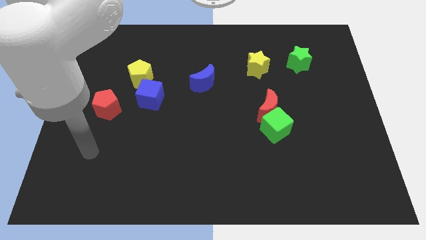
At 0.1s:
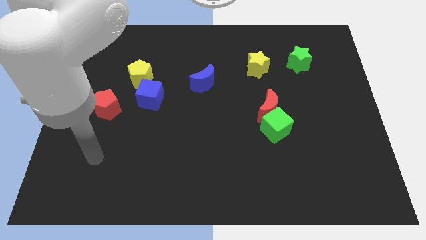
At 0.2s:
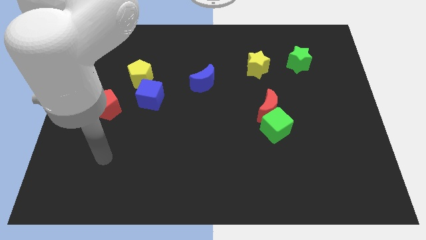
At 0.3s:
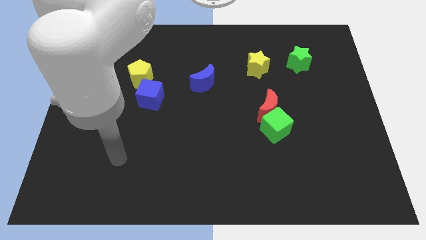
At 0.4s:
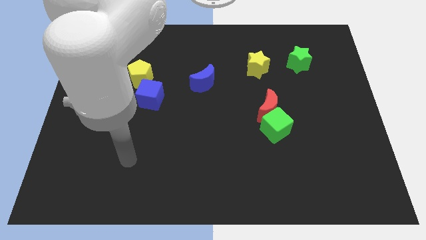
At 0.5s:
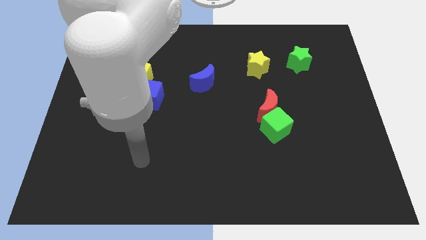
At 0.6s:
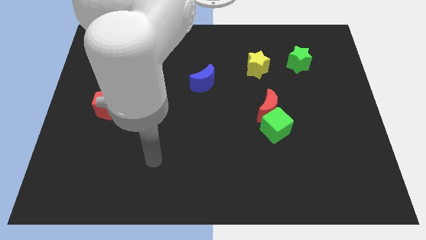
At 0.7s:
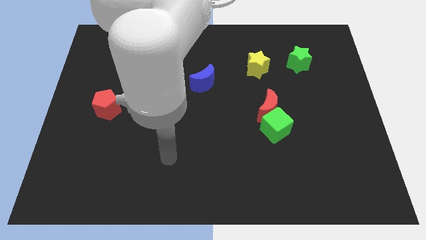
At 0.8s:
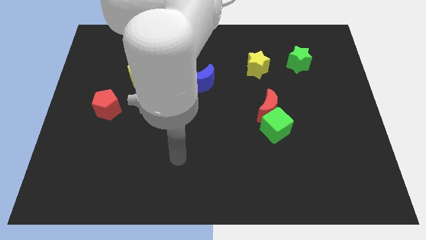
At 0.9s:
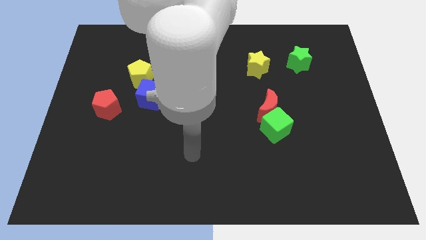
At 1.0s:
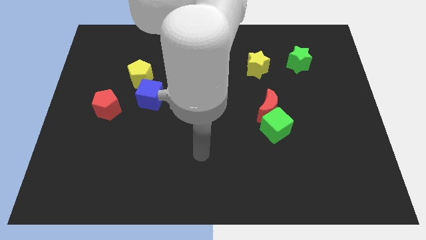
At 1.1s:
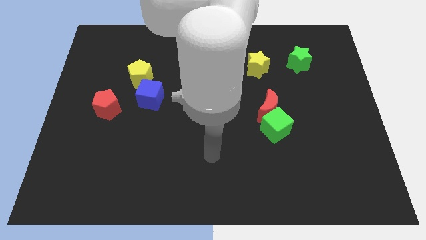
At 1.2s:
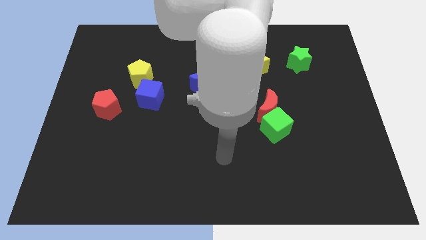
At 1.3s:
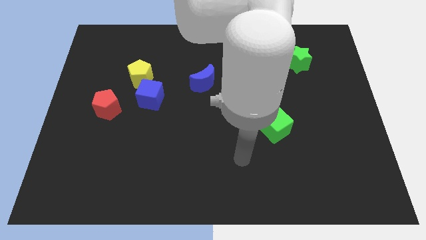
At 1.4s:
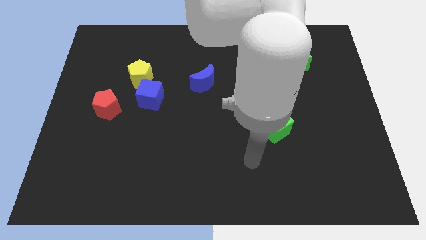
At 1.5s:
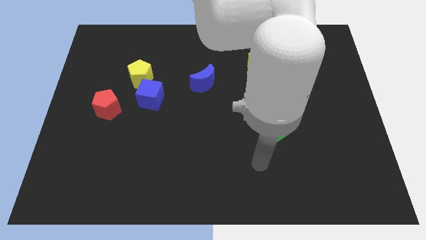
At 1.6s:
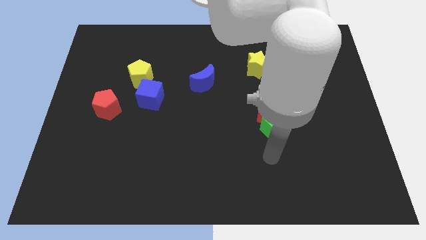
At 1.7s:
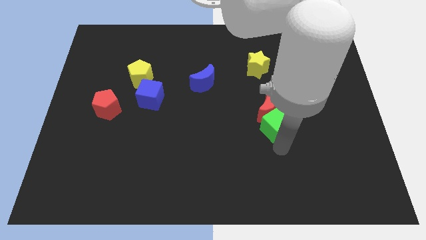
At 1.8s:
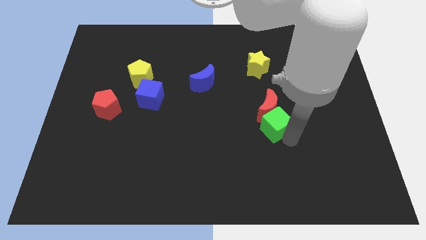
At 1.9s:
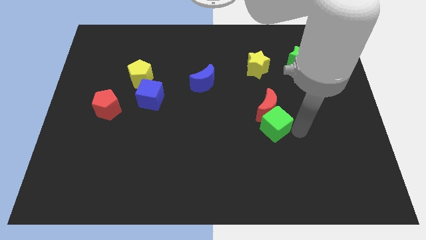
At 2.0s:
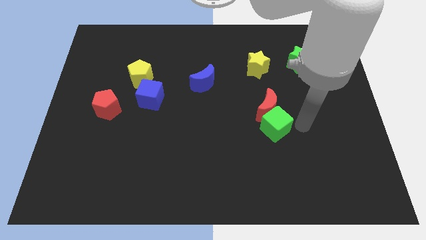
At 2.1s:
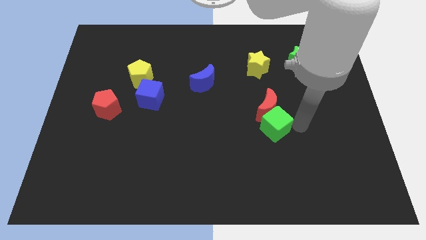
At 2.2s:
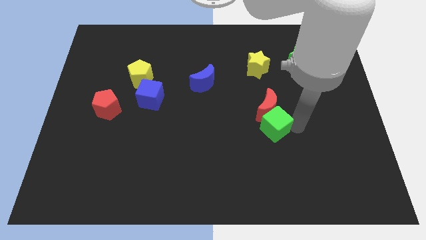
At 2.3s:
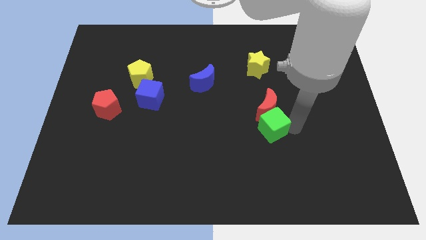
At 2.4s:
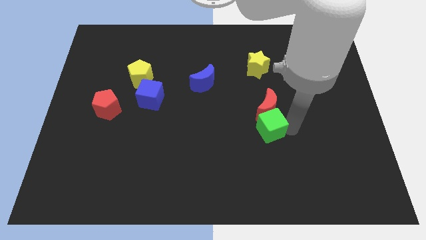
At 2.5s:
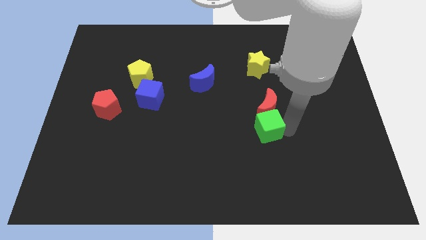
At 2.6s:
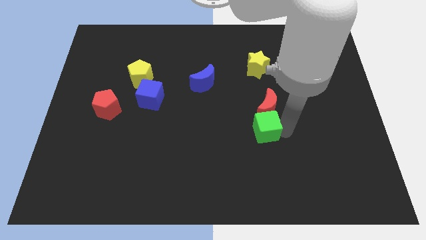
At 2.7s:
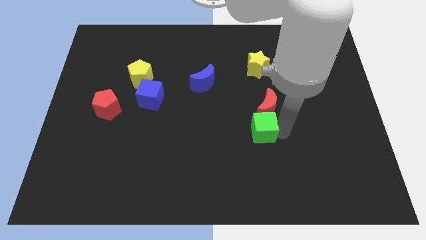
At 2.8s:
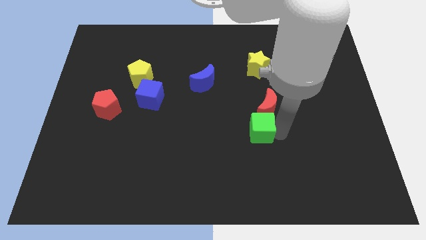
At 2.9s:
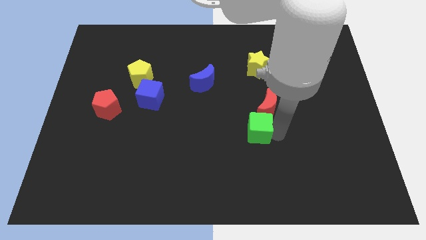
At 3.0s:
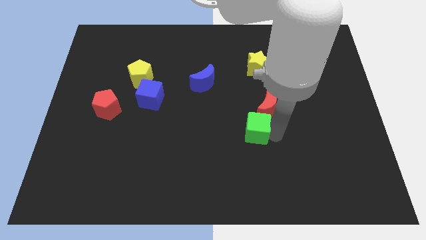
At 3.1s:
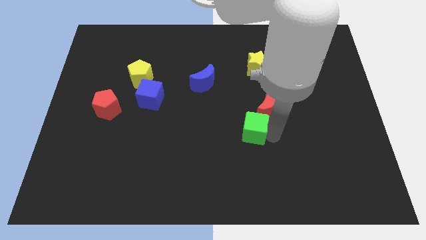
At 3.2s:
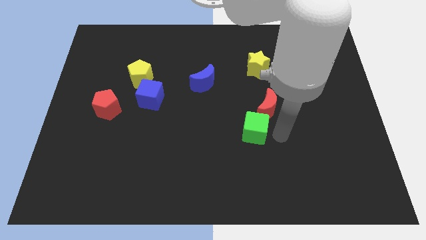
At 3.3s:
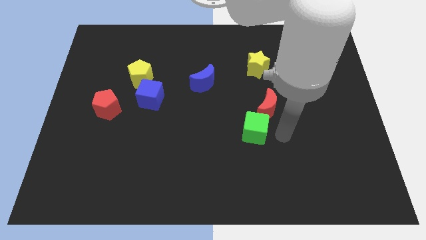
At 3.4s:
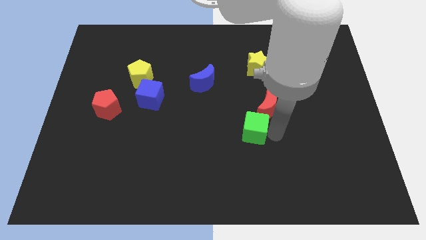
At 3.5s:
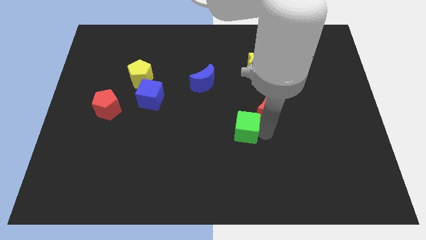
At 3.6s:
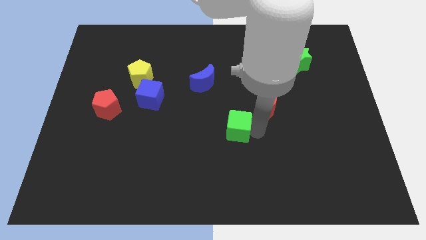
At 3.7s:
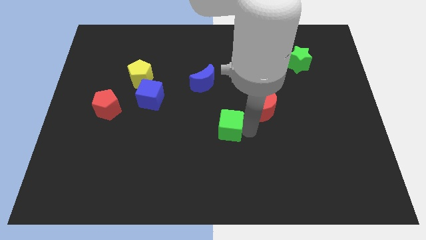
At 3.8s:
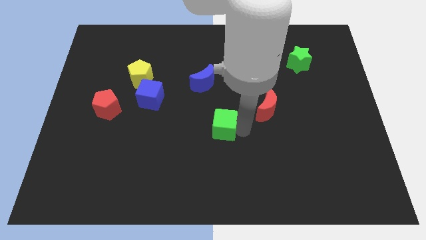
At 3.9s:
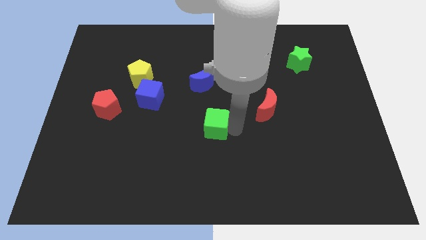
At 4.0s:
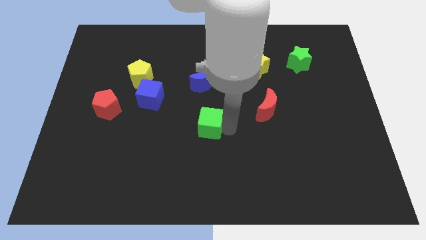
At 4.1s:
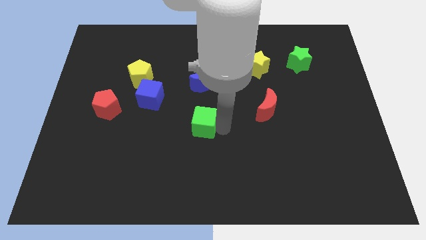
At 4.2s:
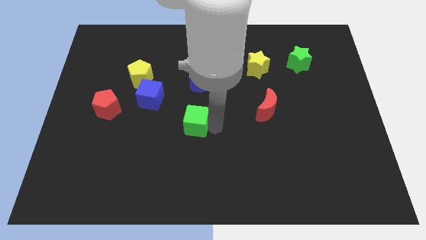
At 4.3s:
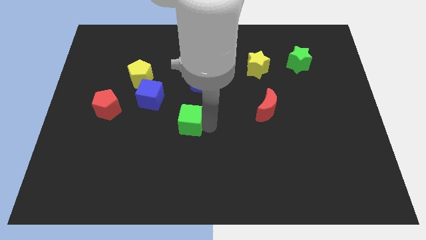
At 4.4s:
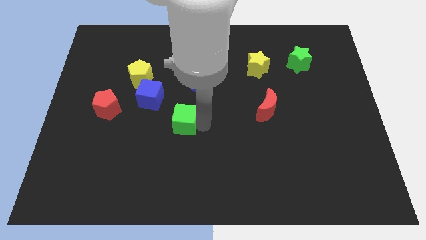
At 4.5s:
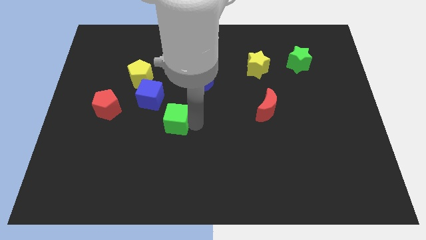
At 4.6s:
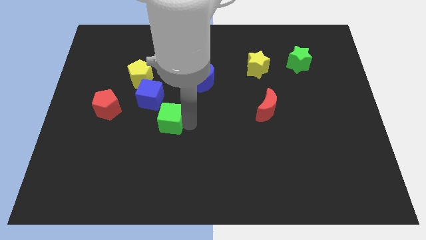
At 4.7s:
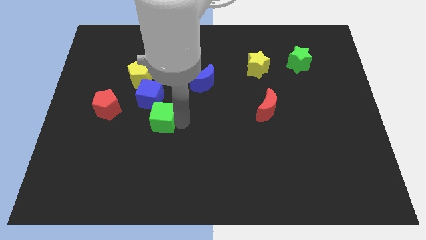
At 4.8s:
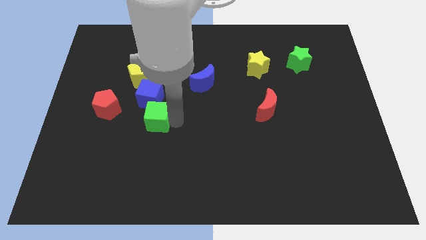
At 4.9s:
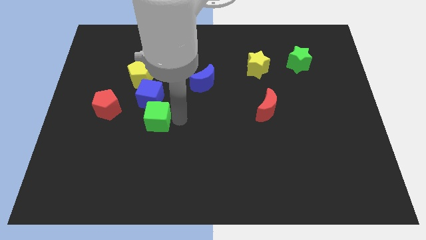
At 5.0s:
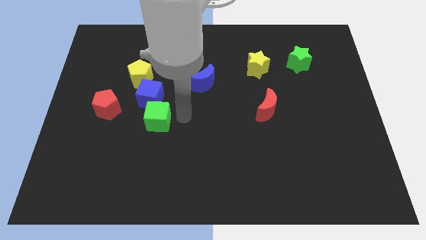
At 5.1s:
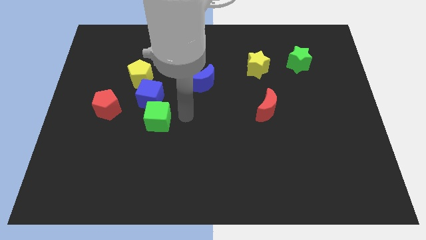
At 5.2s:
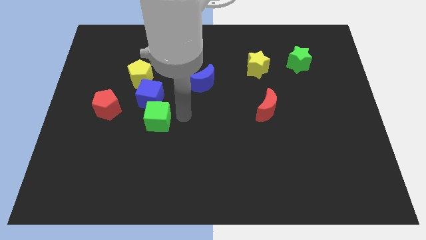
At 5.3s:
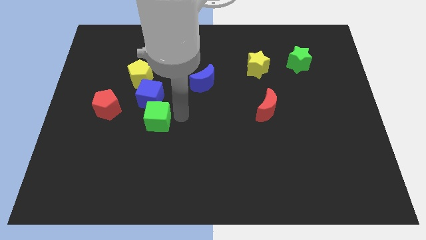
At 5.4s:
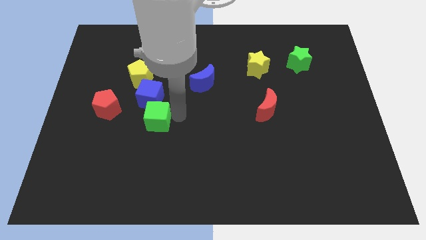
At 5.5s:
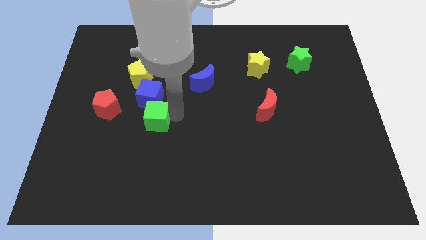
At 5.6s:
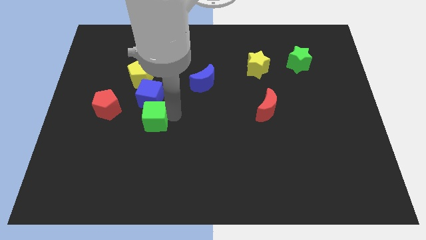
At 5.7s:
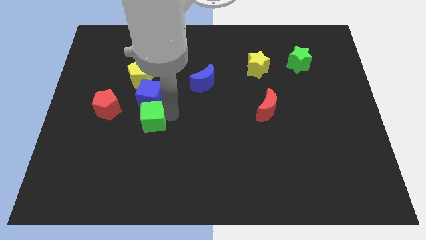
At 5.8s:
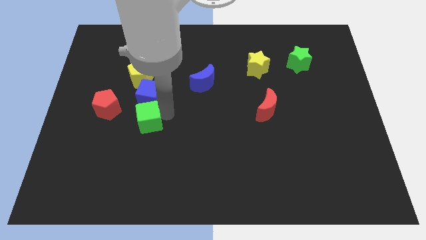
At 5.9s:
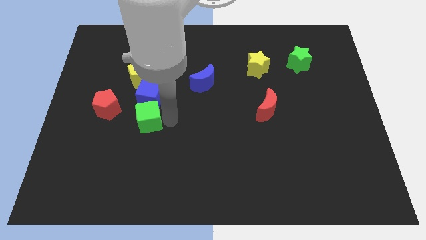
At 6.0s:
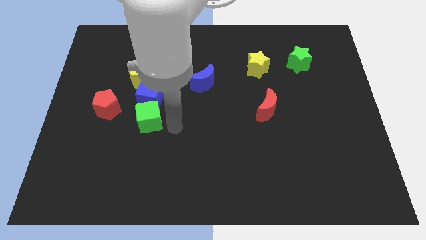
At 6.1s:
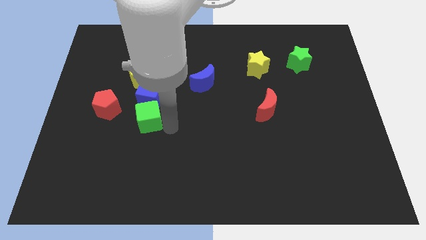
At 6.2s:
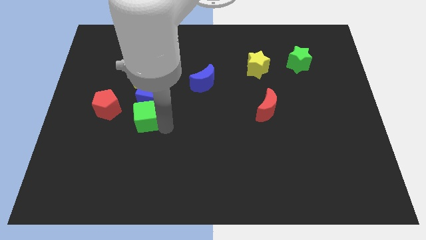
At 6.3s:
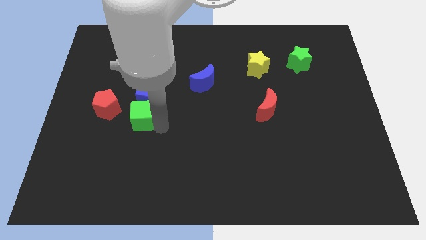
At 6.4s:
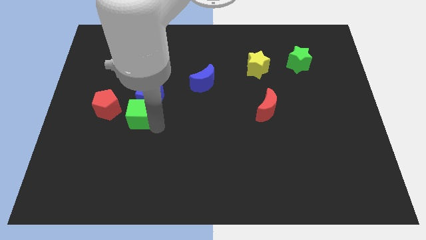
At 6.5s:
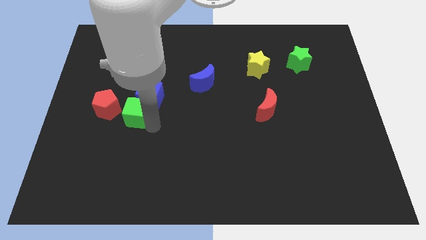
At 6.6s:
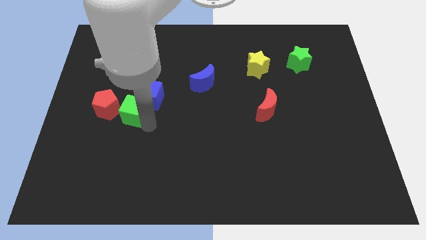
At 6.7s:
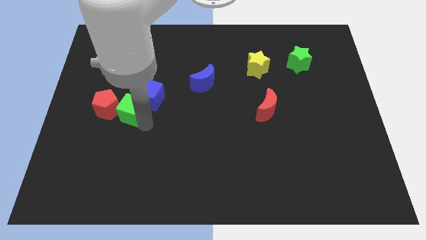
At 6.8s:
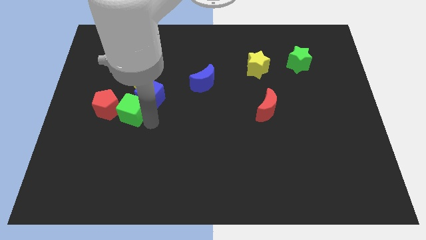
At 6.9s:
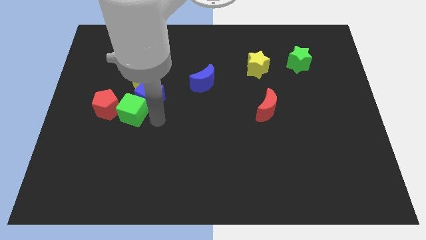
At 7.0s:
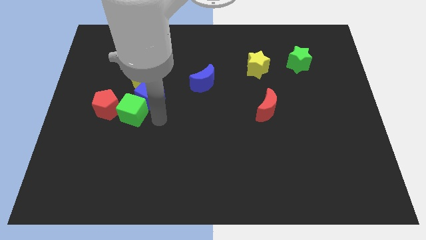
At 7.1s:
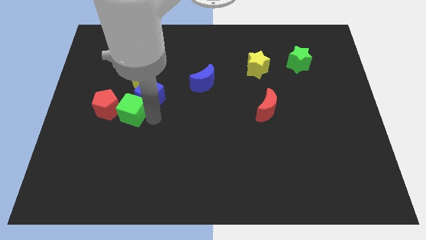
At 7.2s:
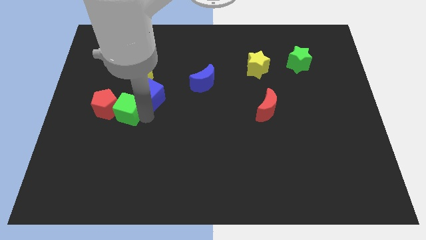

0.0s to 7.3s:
move the green cube next to the red pentagon

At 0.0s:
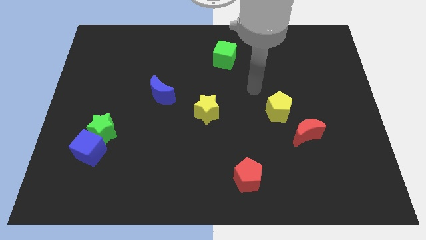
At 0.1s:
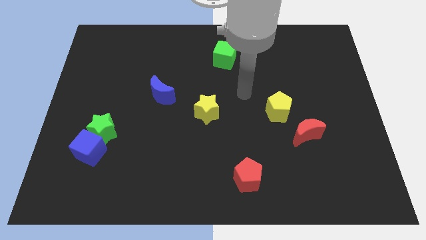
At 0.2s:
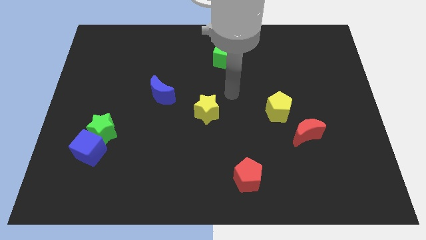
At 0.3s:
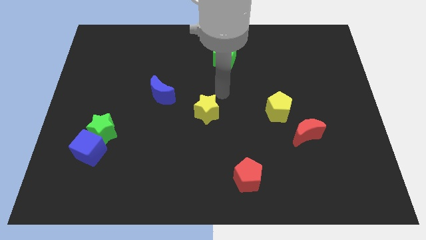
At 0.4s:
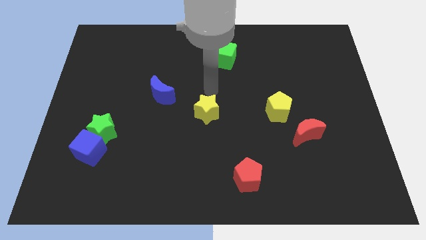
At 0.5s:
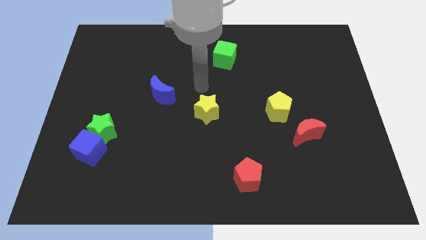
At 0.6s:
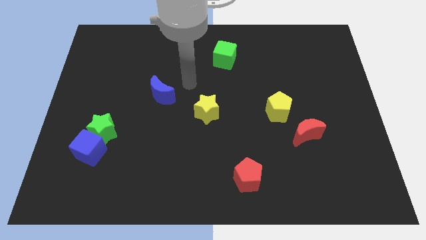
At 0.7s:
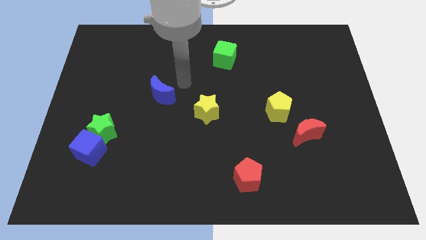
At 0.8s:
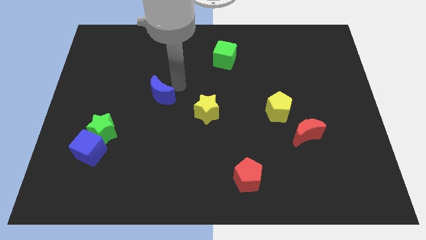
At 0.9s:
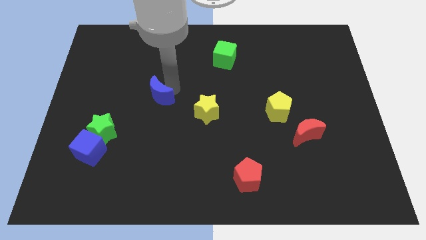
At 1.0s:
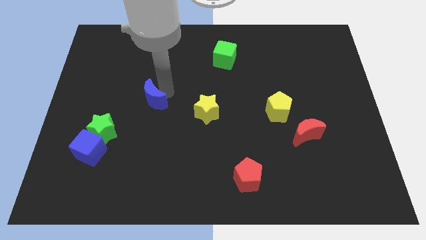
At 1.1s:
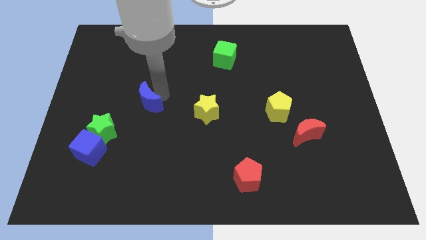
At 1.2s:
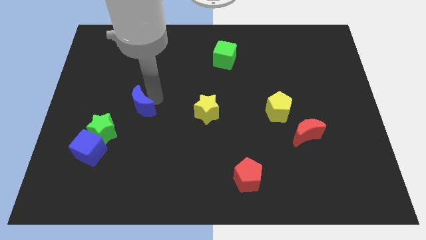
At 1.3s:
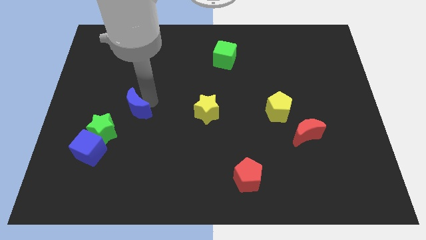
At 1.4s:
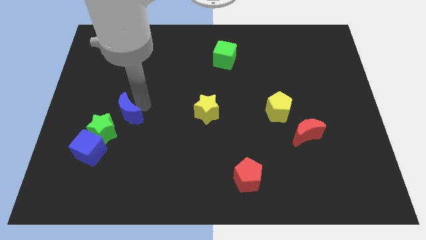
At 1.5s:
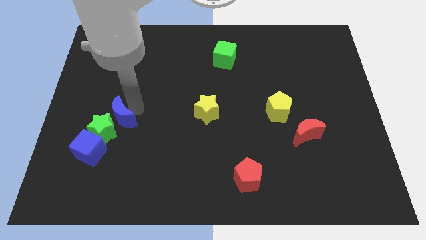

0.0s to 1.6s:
put the blue moon next to the green star
